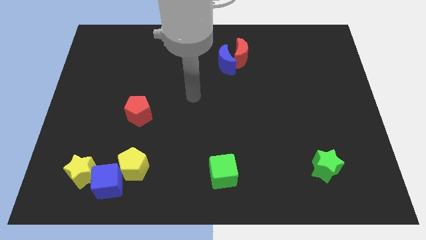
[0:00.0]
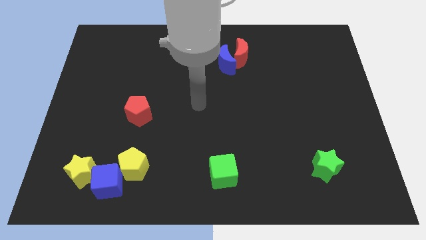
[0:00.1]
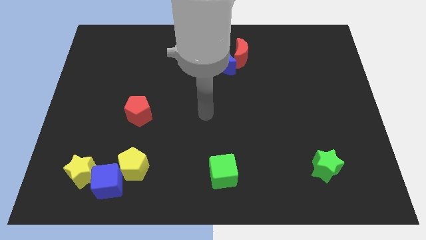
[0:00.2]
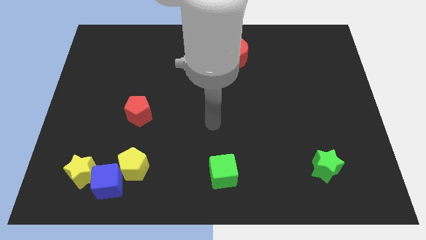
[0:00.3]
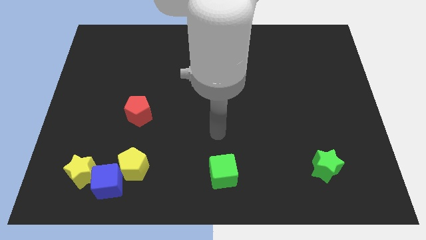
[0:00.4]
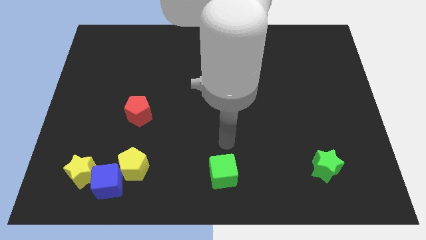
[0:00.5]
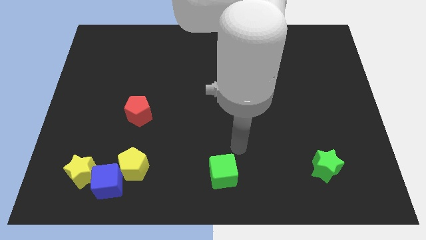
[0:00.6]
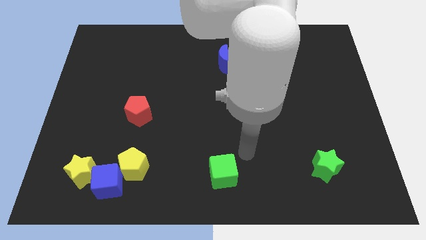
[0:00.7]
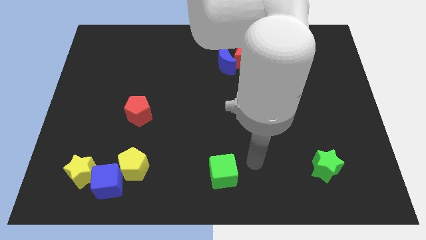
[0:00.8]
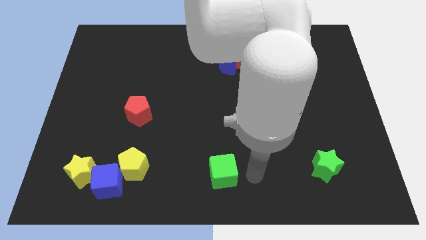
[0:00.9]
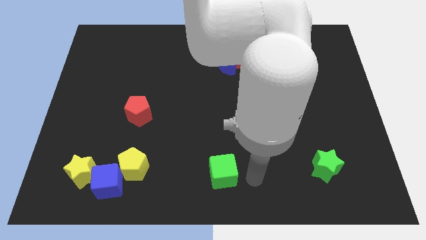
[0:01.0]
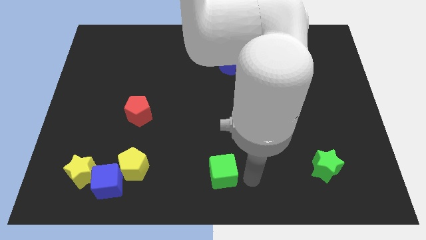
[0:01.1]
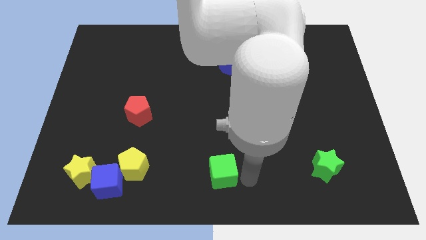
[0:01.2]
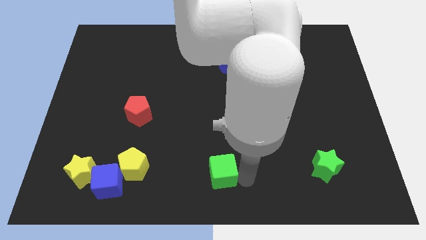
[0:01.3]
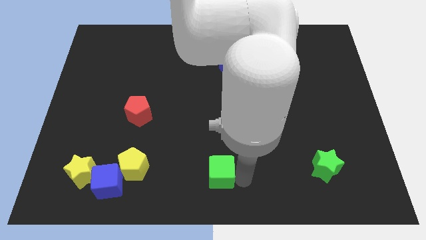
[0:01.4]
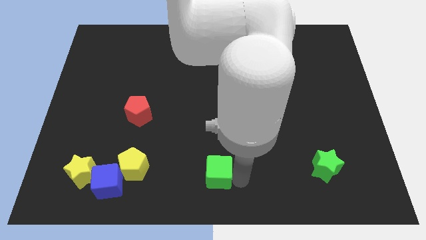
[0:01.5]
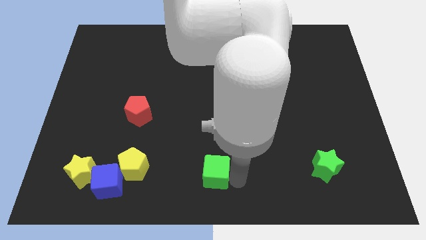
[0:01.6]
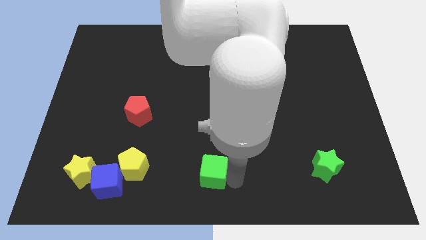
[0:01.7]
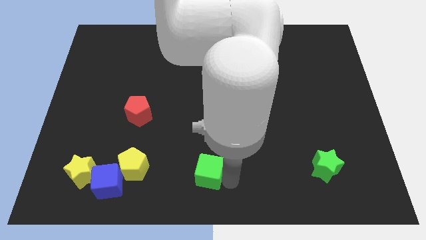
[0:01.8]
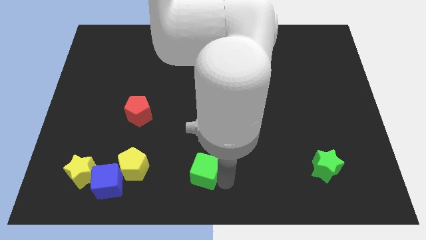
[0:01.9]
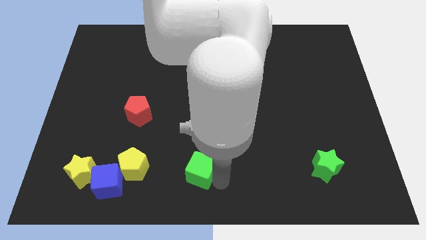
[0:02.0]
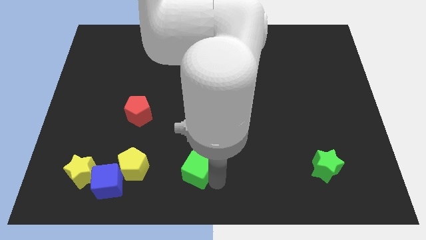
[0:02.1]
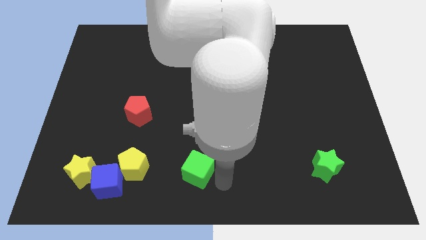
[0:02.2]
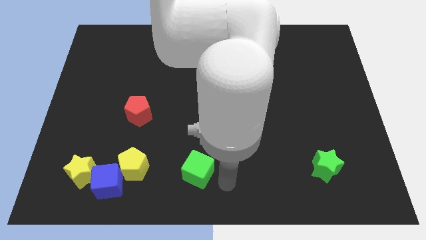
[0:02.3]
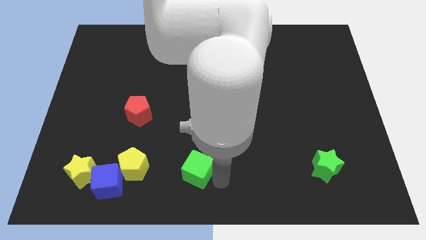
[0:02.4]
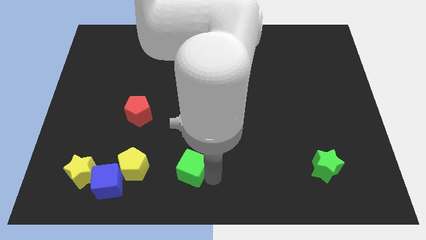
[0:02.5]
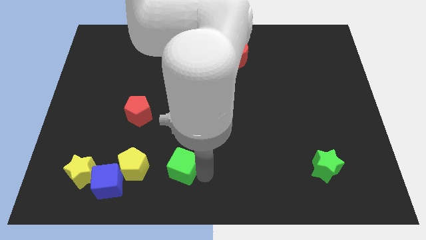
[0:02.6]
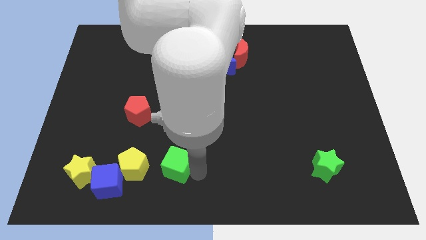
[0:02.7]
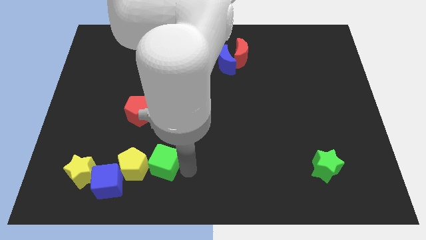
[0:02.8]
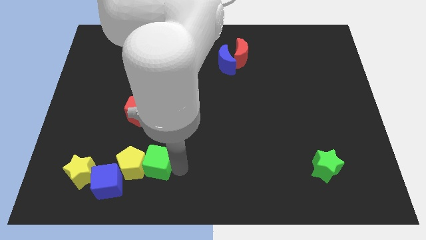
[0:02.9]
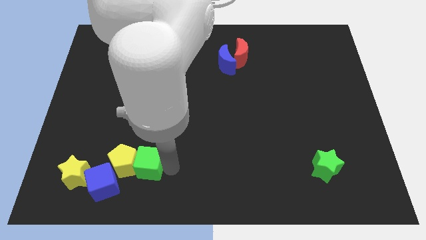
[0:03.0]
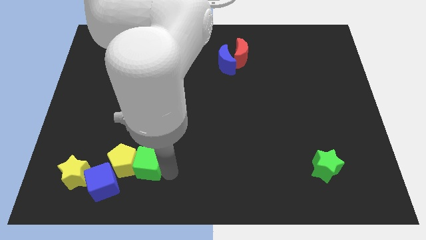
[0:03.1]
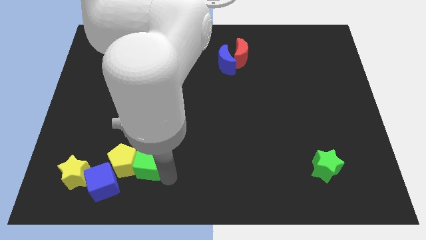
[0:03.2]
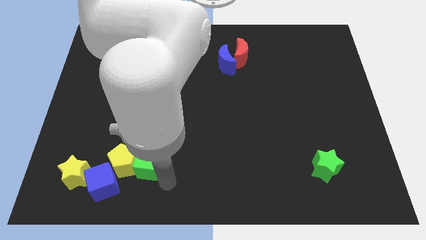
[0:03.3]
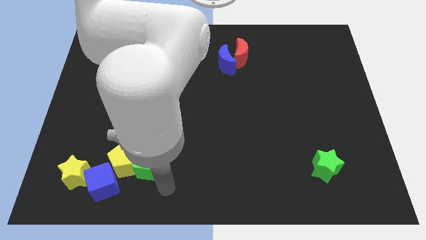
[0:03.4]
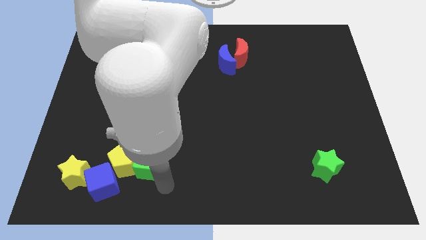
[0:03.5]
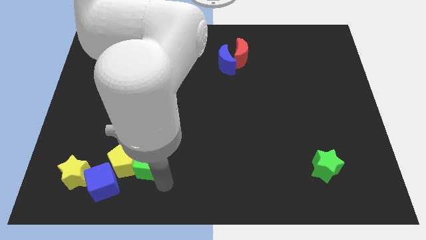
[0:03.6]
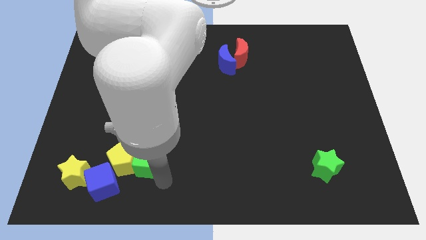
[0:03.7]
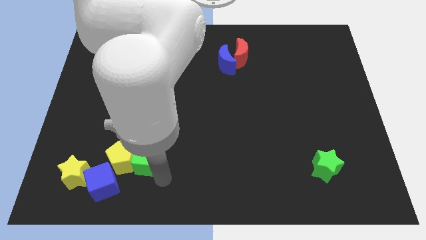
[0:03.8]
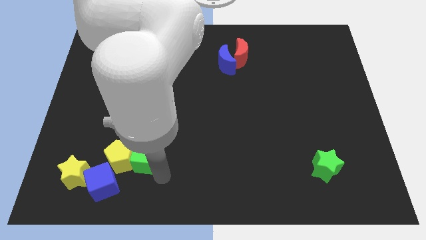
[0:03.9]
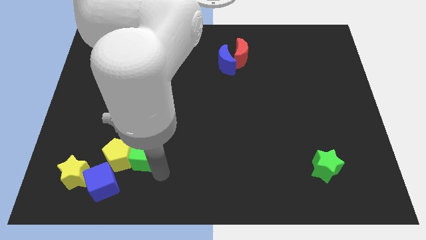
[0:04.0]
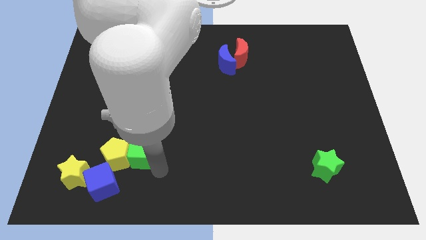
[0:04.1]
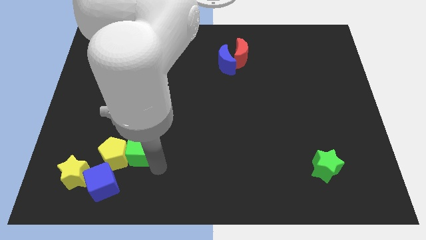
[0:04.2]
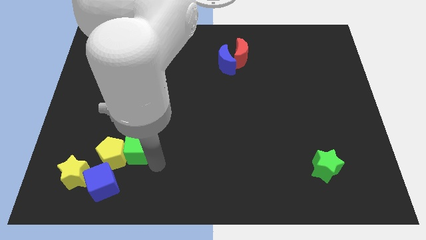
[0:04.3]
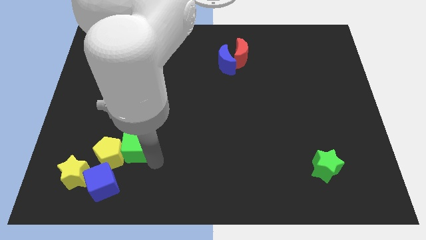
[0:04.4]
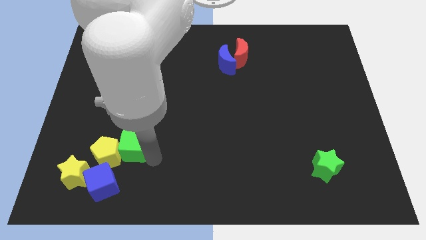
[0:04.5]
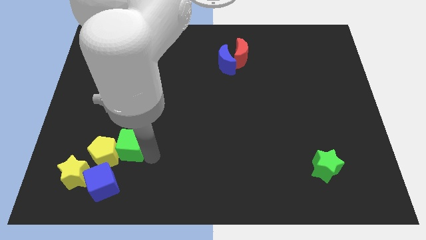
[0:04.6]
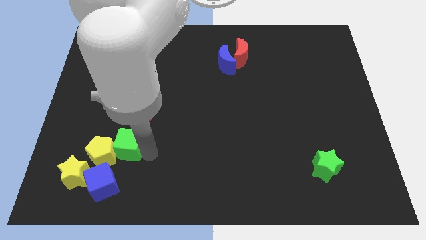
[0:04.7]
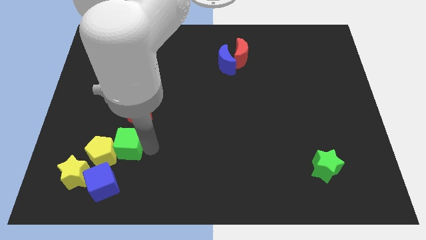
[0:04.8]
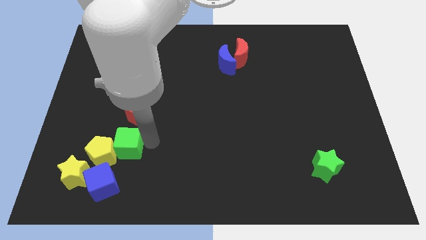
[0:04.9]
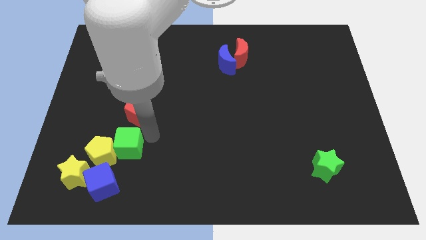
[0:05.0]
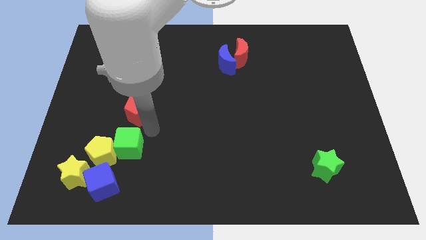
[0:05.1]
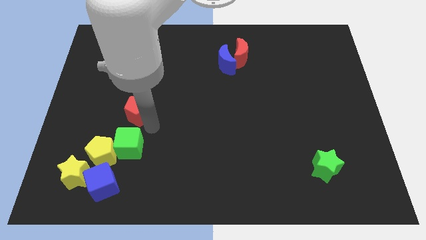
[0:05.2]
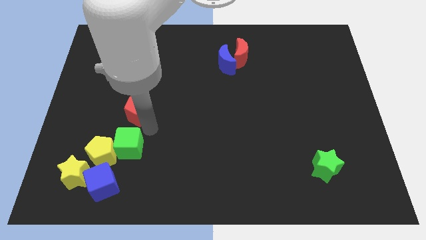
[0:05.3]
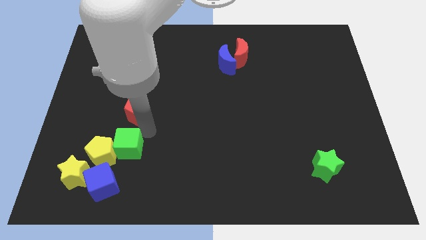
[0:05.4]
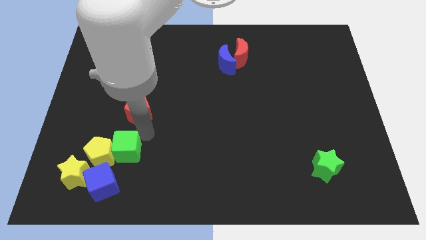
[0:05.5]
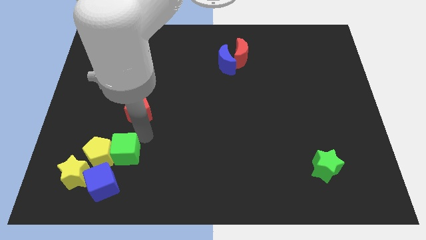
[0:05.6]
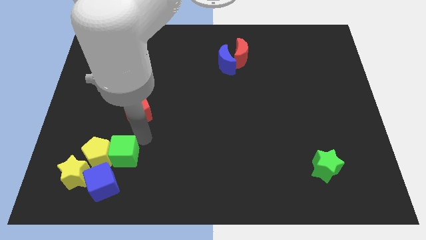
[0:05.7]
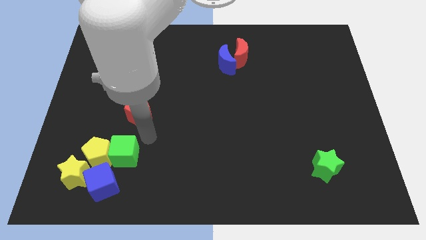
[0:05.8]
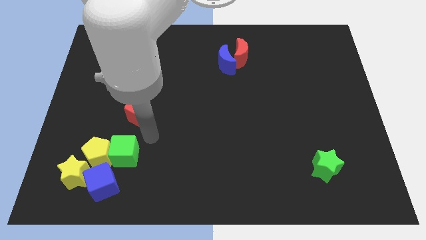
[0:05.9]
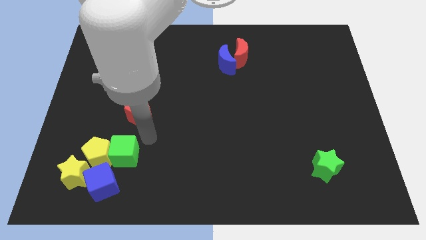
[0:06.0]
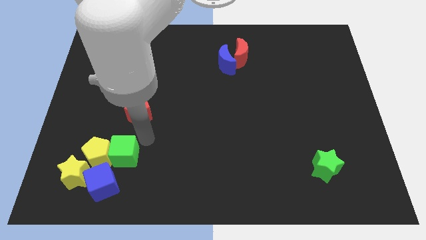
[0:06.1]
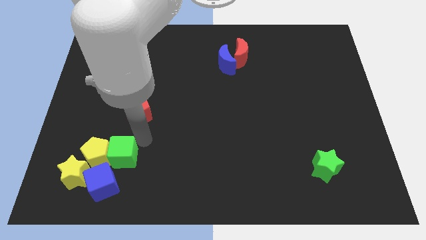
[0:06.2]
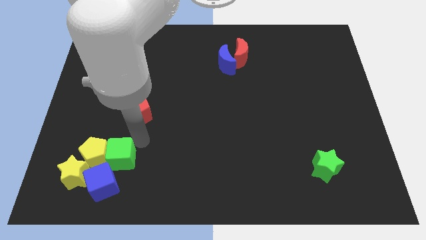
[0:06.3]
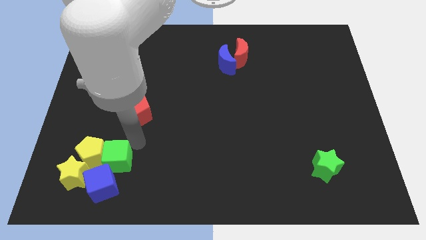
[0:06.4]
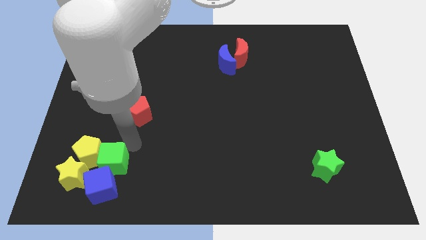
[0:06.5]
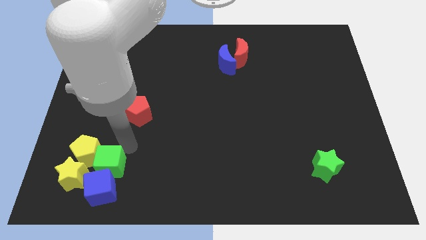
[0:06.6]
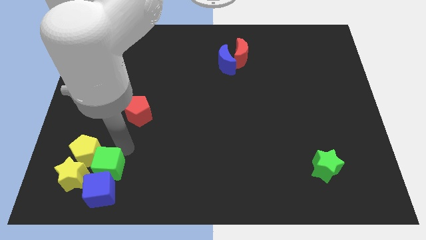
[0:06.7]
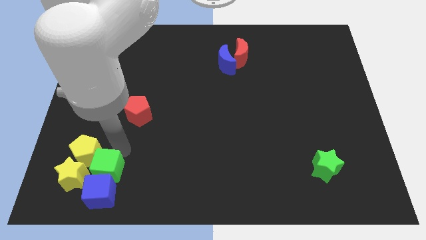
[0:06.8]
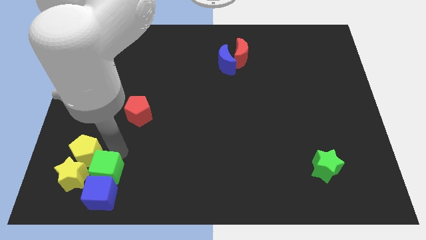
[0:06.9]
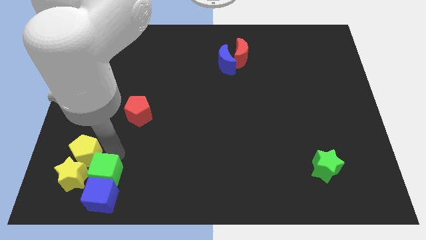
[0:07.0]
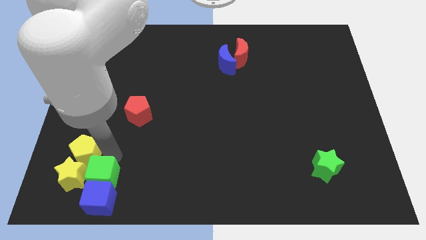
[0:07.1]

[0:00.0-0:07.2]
push the green cube close to the yellow star
